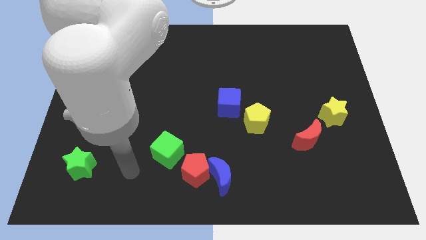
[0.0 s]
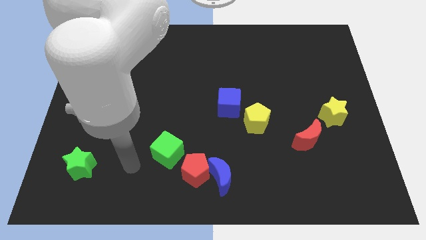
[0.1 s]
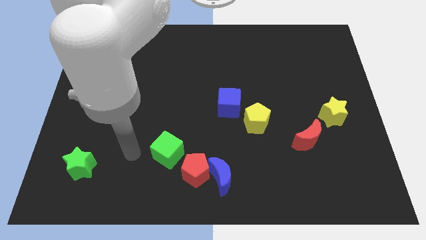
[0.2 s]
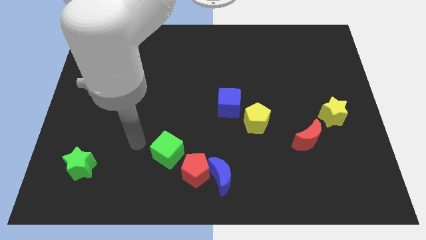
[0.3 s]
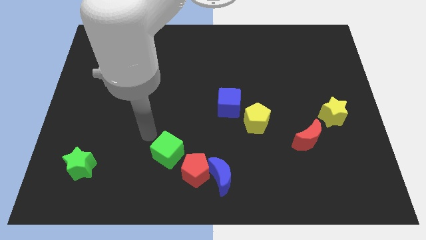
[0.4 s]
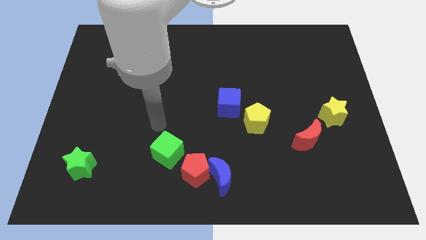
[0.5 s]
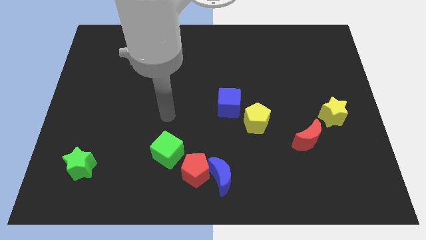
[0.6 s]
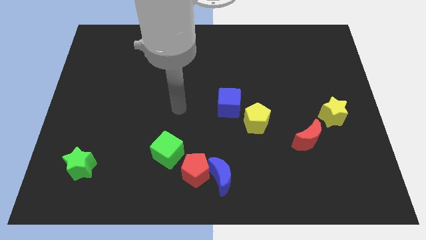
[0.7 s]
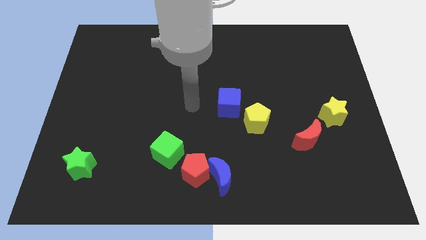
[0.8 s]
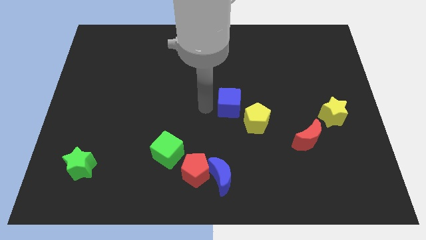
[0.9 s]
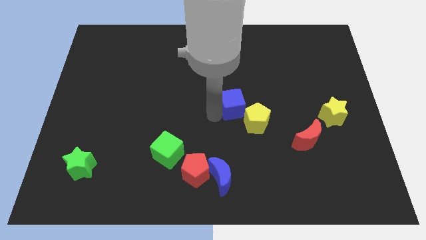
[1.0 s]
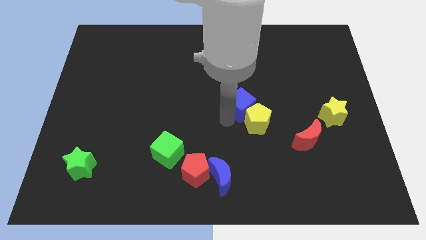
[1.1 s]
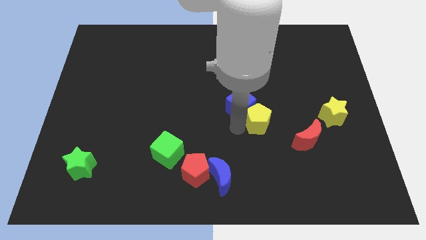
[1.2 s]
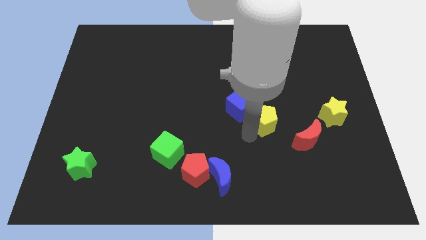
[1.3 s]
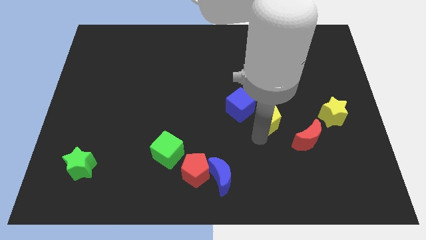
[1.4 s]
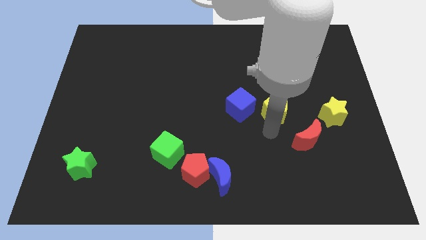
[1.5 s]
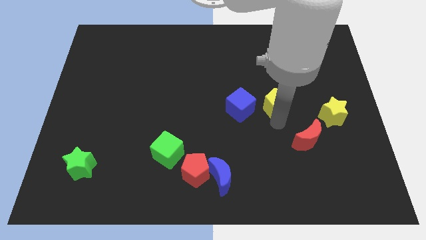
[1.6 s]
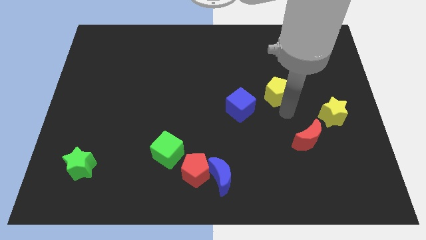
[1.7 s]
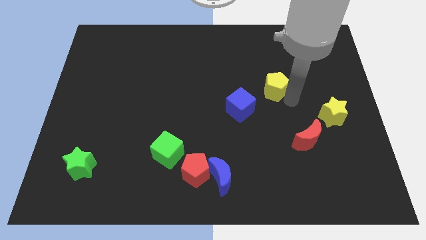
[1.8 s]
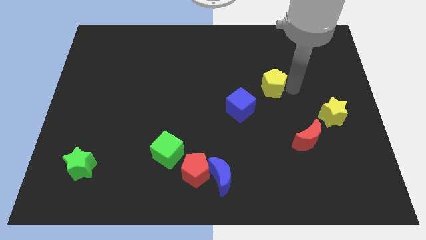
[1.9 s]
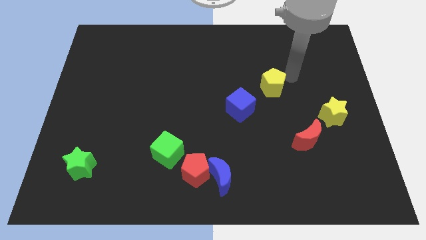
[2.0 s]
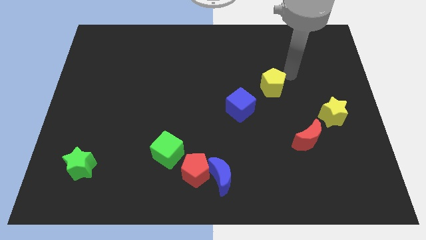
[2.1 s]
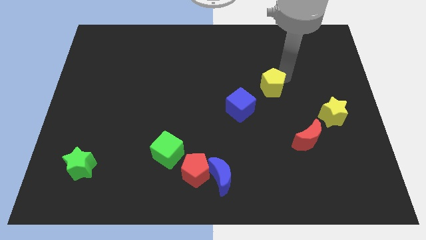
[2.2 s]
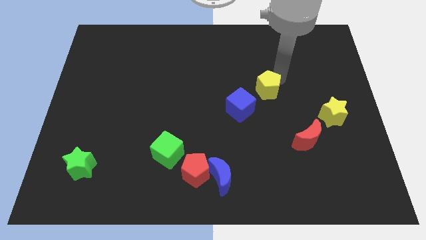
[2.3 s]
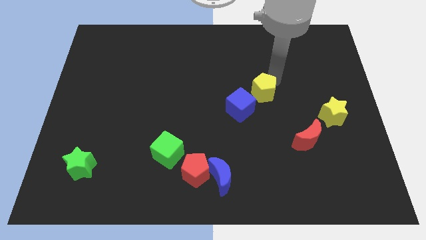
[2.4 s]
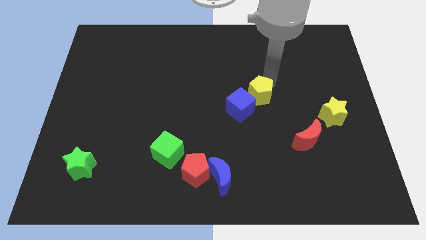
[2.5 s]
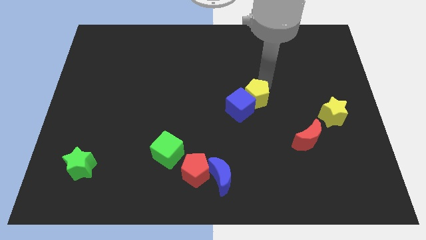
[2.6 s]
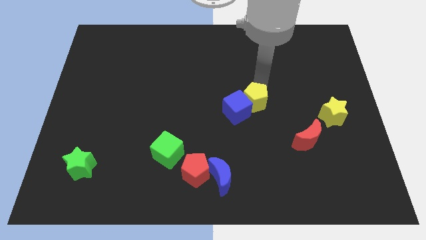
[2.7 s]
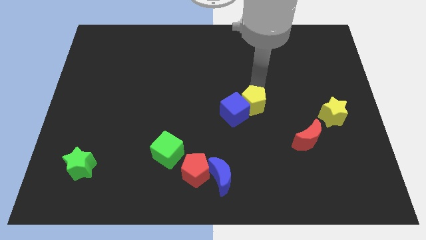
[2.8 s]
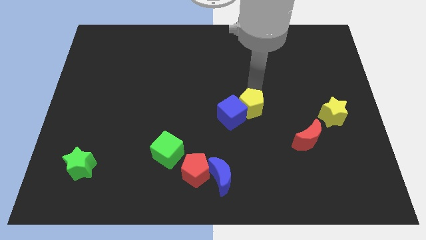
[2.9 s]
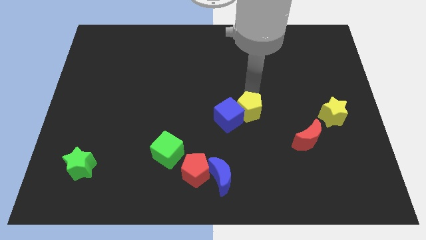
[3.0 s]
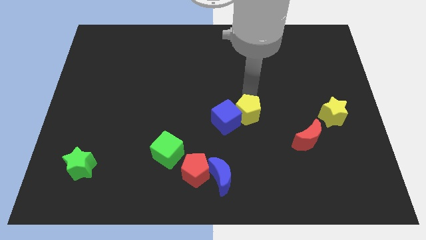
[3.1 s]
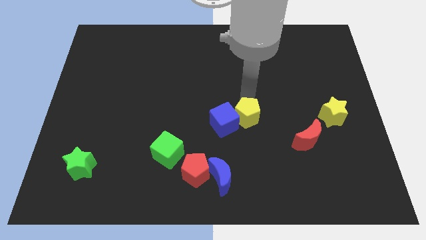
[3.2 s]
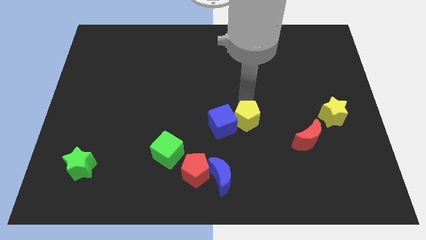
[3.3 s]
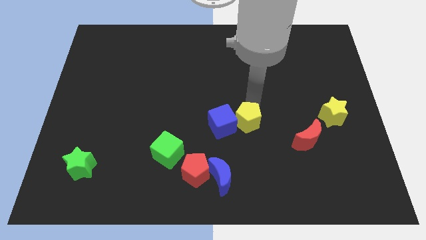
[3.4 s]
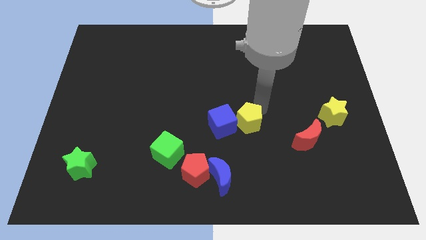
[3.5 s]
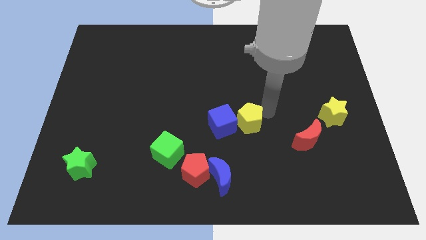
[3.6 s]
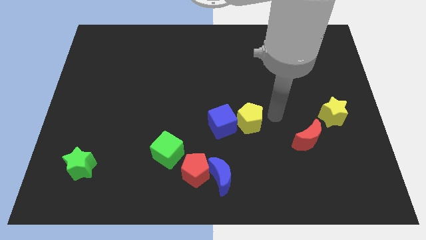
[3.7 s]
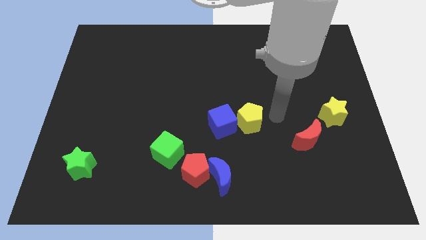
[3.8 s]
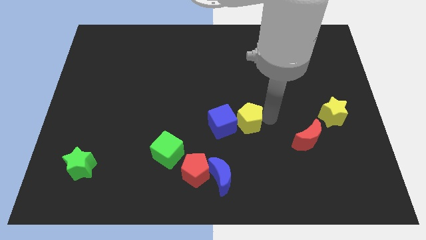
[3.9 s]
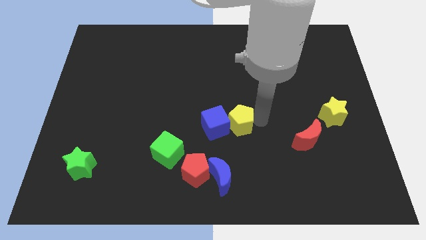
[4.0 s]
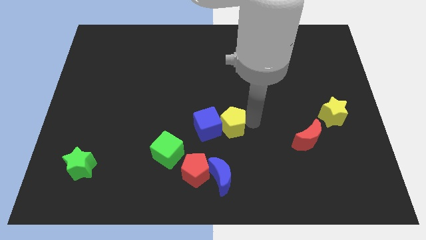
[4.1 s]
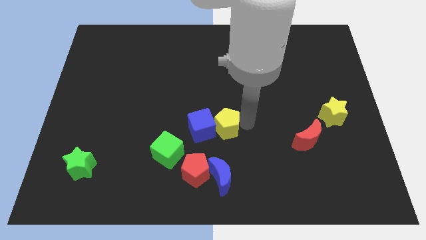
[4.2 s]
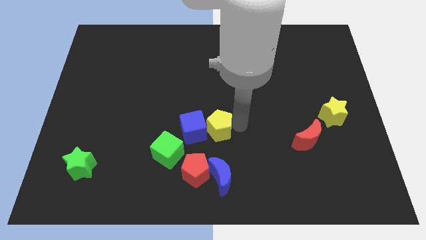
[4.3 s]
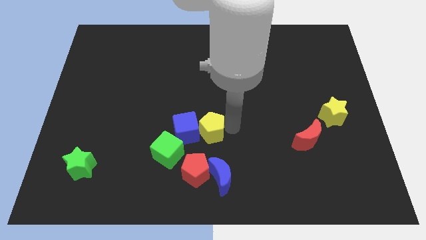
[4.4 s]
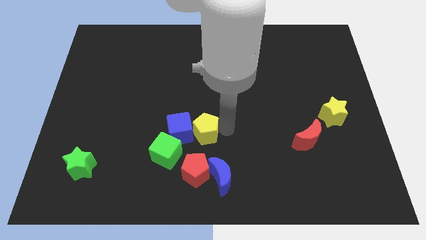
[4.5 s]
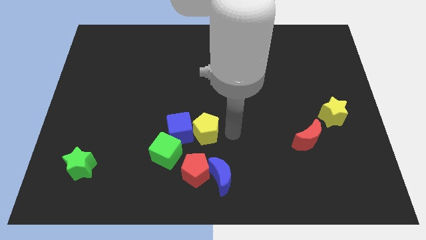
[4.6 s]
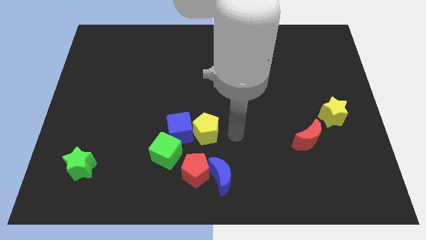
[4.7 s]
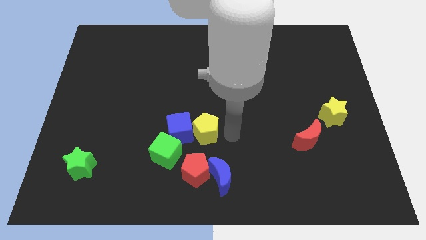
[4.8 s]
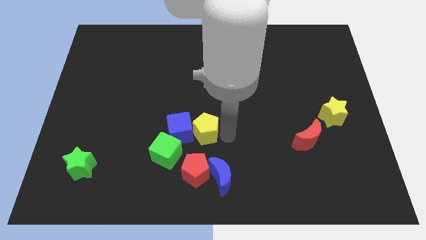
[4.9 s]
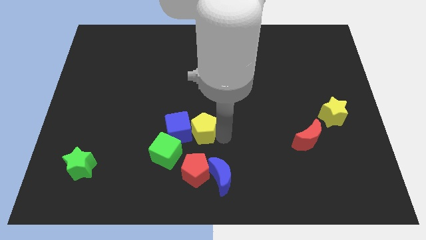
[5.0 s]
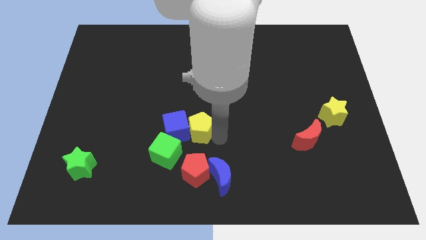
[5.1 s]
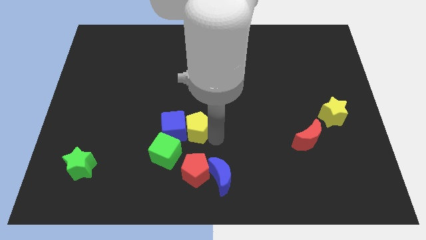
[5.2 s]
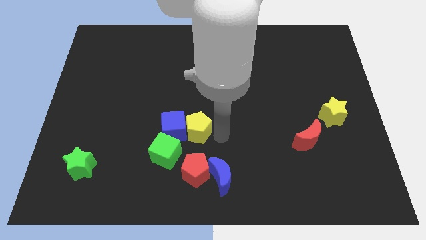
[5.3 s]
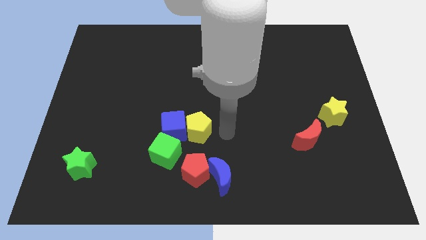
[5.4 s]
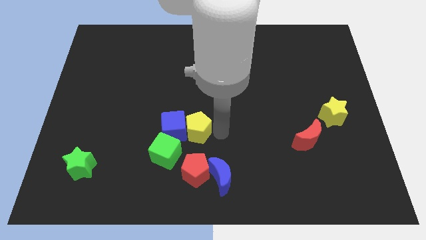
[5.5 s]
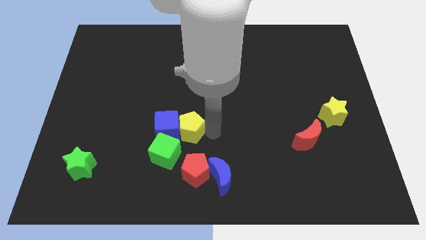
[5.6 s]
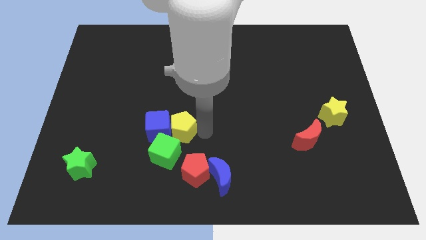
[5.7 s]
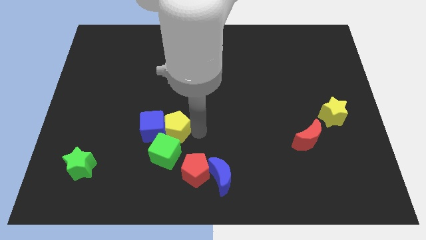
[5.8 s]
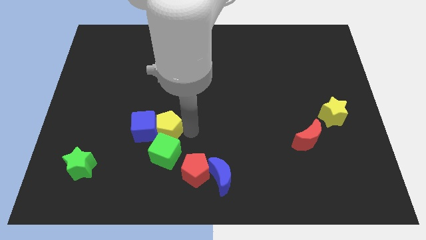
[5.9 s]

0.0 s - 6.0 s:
move the yellow pentagon diagonally up and to the left of the green cube

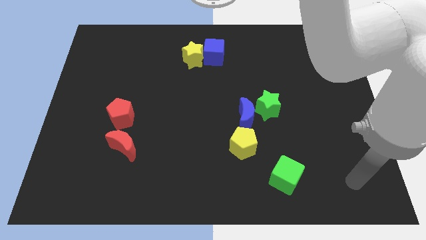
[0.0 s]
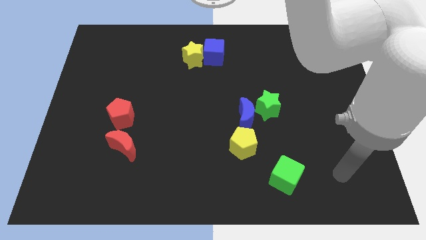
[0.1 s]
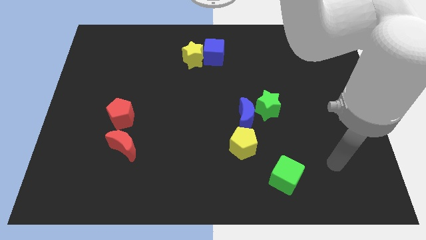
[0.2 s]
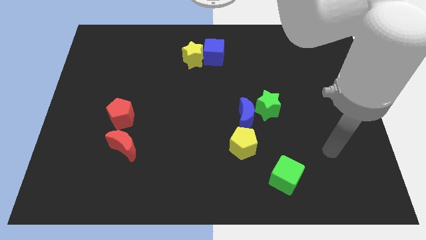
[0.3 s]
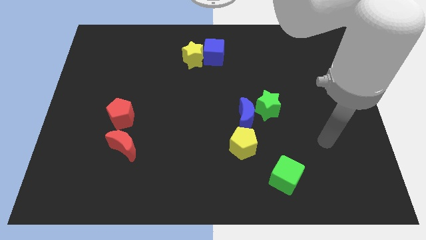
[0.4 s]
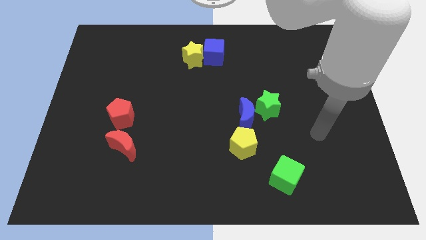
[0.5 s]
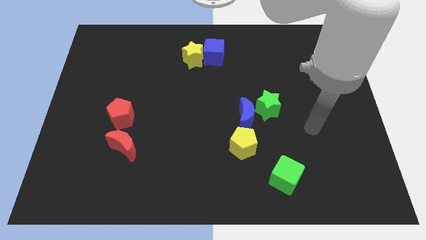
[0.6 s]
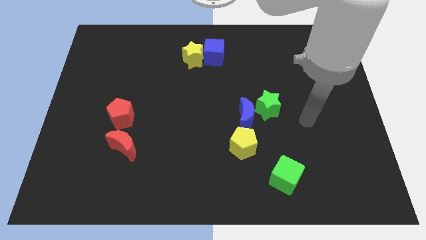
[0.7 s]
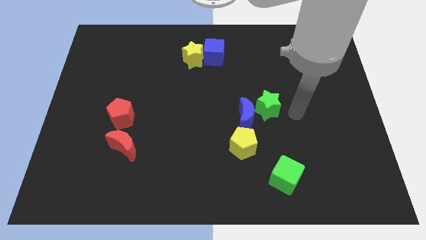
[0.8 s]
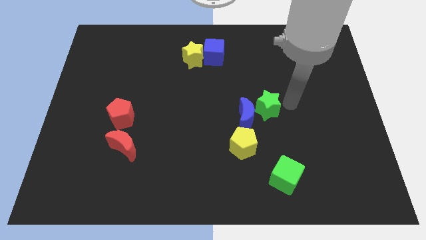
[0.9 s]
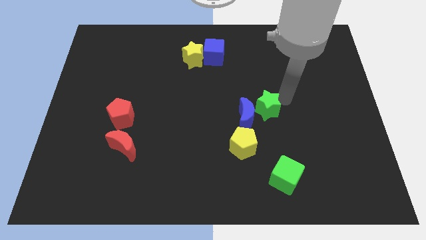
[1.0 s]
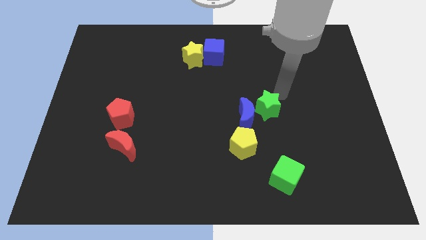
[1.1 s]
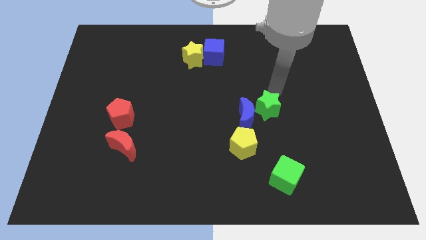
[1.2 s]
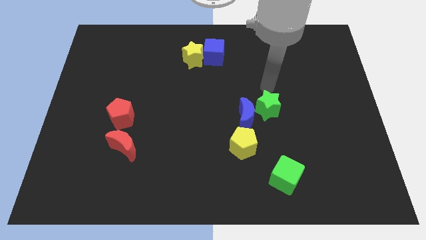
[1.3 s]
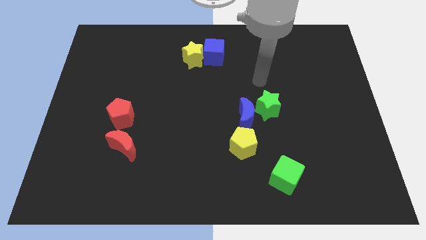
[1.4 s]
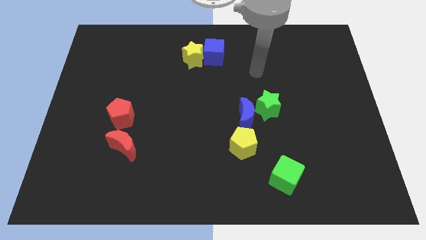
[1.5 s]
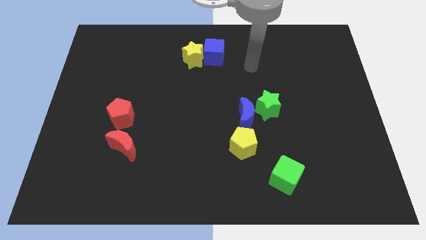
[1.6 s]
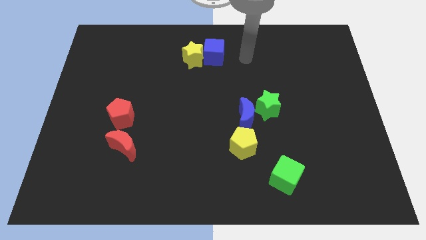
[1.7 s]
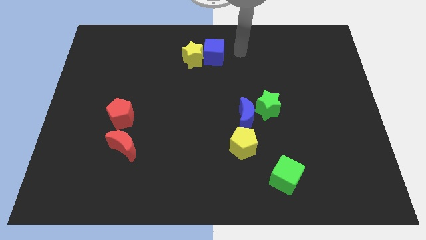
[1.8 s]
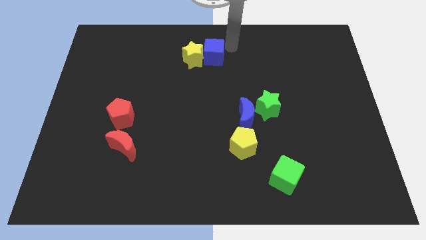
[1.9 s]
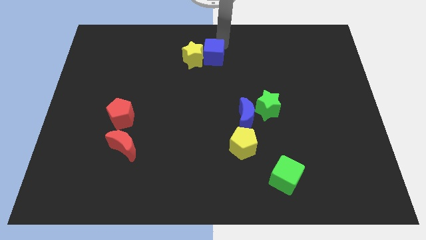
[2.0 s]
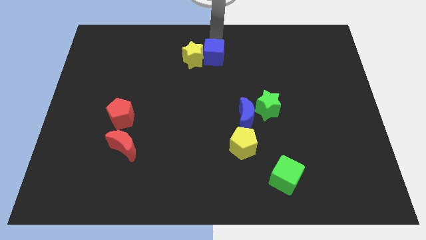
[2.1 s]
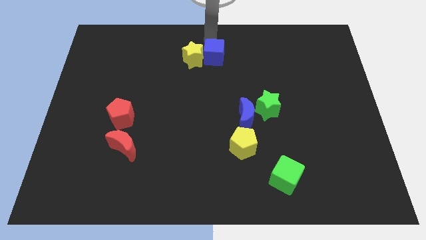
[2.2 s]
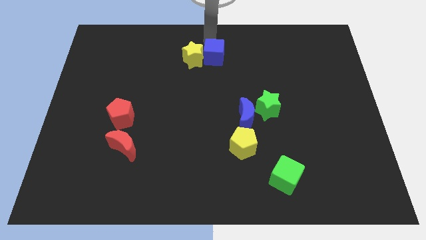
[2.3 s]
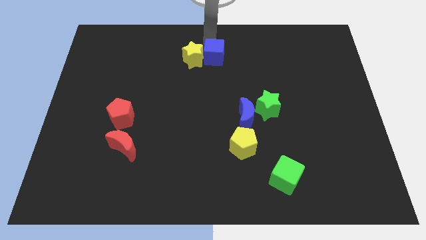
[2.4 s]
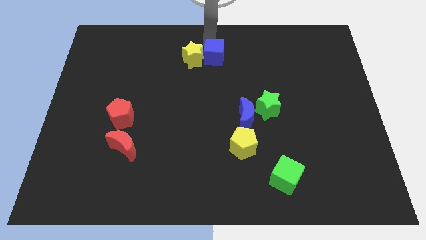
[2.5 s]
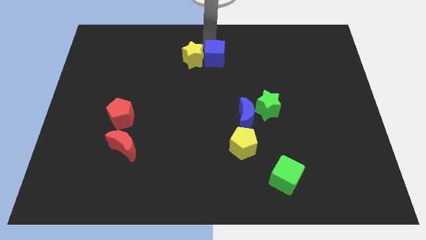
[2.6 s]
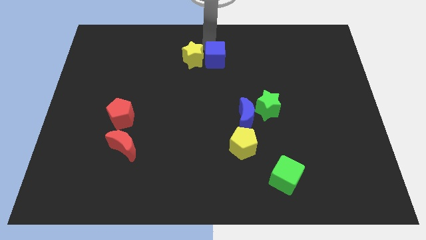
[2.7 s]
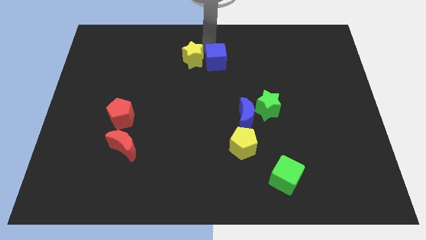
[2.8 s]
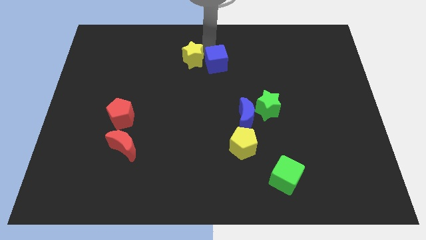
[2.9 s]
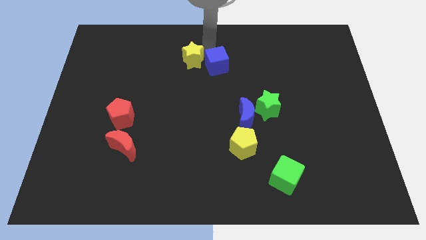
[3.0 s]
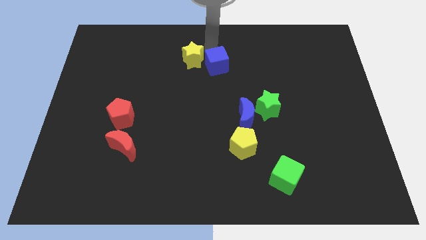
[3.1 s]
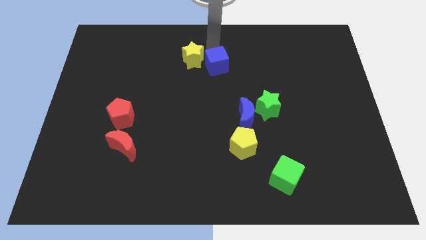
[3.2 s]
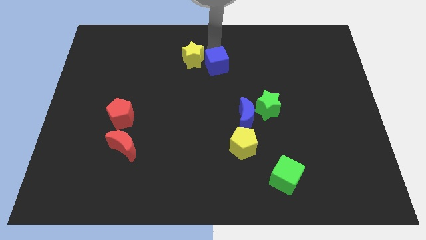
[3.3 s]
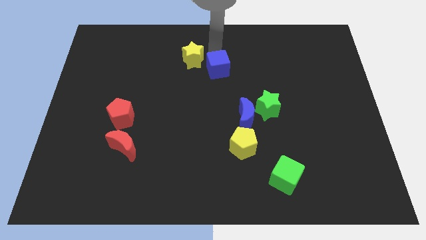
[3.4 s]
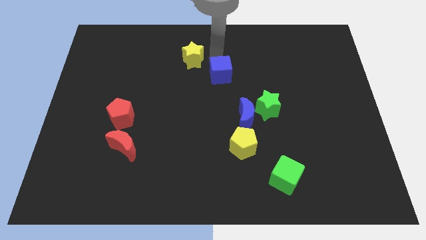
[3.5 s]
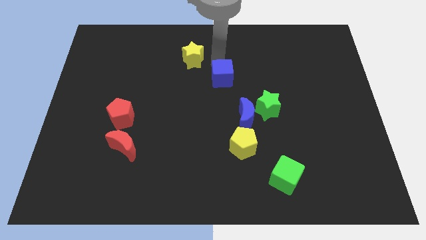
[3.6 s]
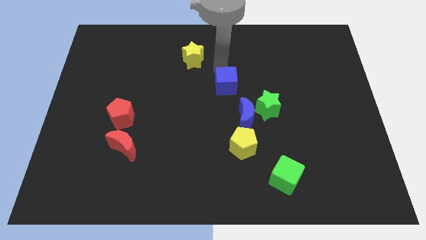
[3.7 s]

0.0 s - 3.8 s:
slide the blue cube to the top left side of the blue moon
